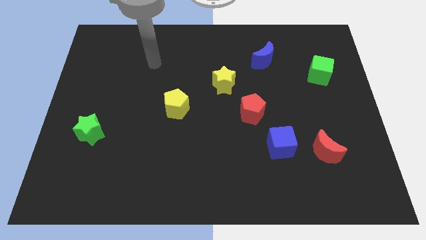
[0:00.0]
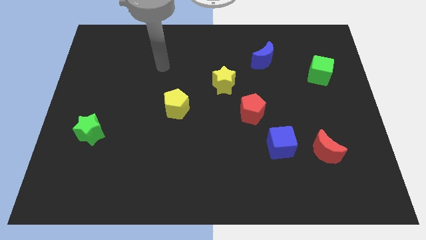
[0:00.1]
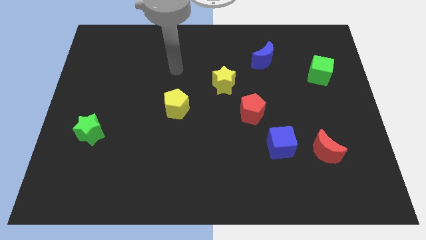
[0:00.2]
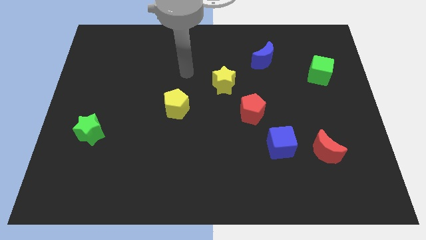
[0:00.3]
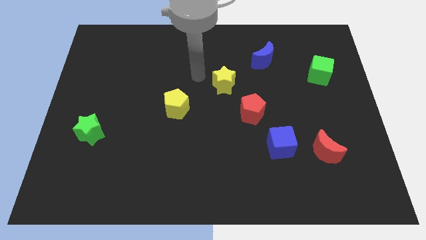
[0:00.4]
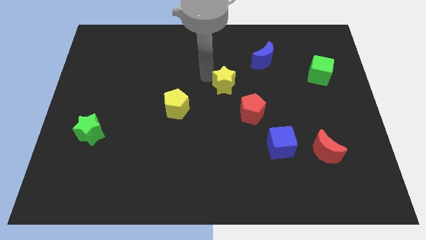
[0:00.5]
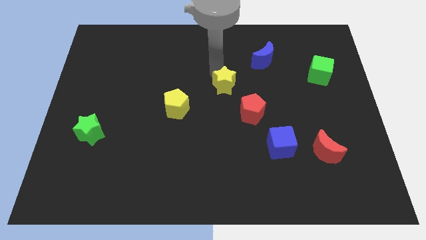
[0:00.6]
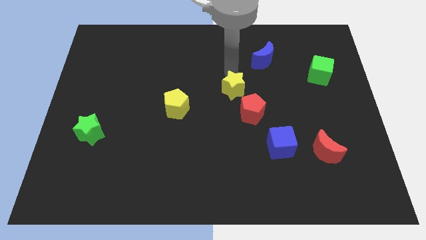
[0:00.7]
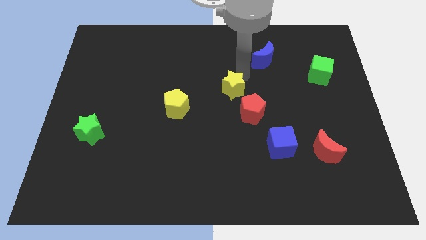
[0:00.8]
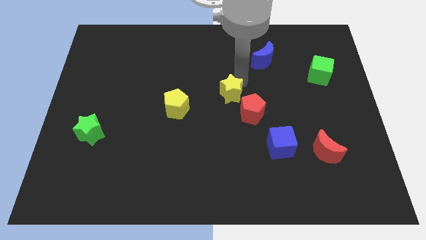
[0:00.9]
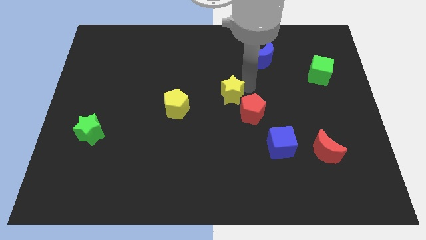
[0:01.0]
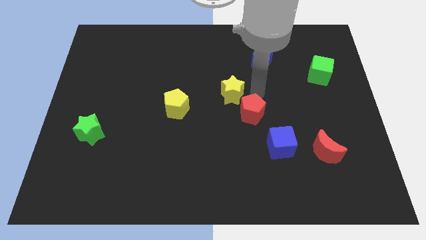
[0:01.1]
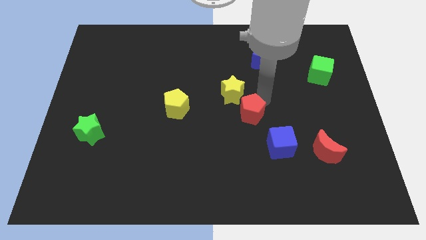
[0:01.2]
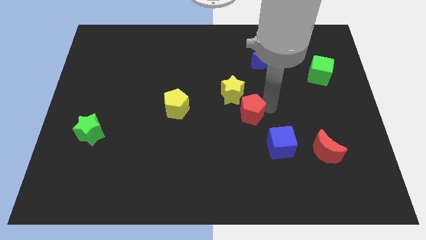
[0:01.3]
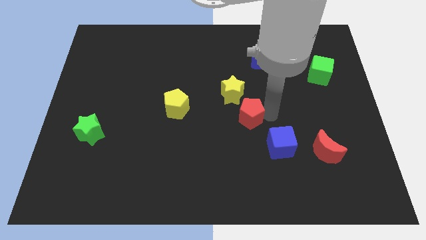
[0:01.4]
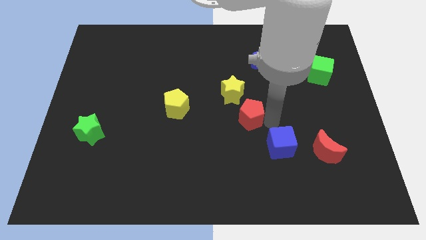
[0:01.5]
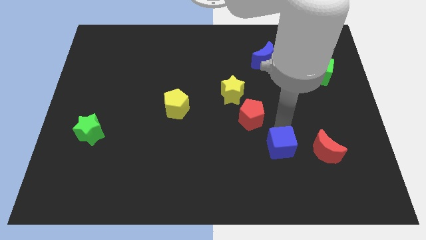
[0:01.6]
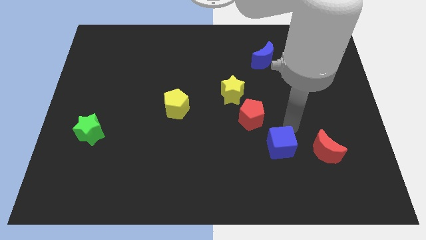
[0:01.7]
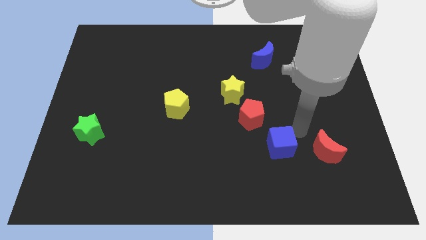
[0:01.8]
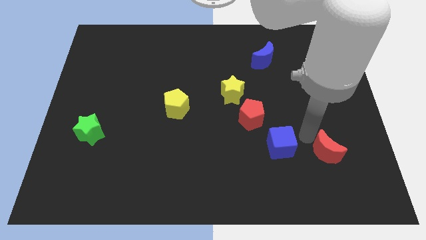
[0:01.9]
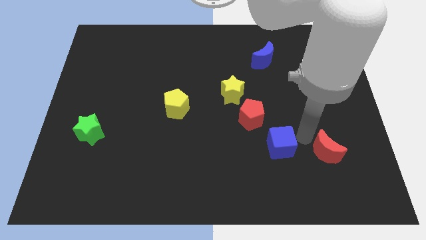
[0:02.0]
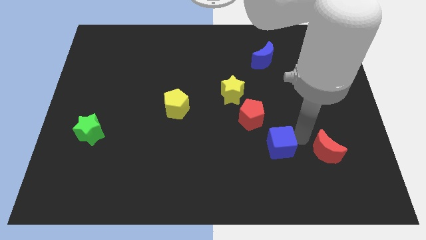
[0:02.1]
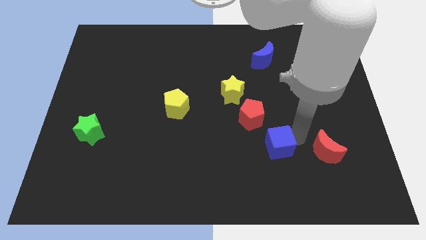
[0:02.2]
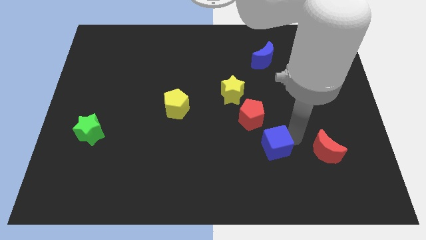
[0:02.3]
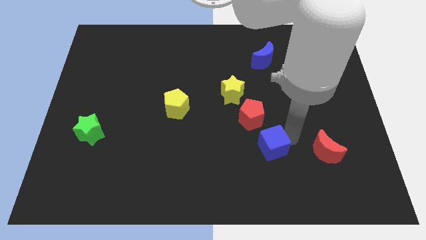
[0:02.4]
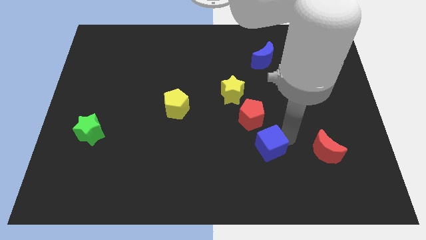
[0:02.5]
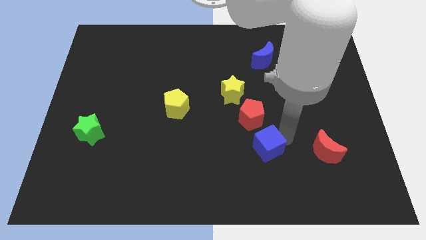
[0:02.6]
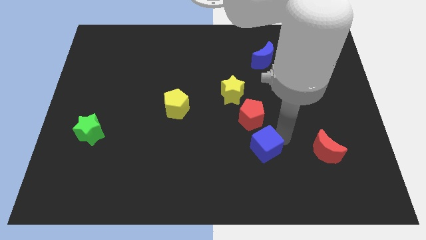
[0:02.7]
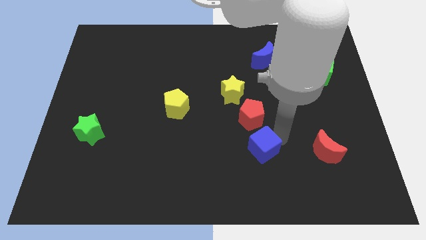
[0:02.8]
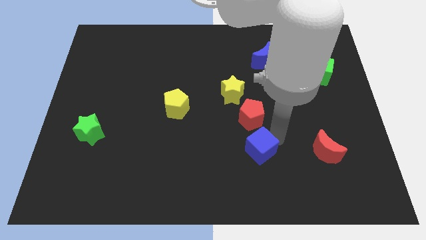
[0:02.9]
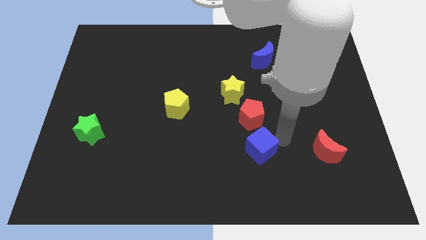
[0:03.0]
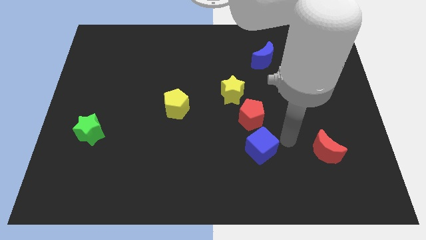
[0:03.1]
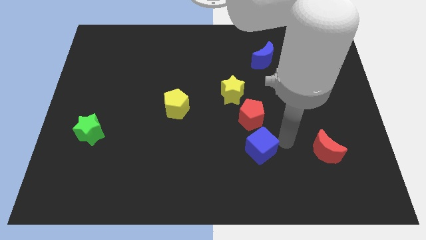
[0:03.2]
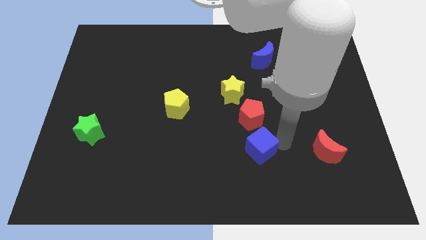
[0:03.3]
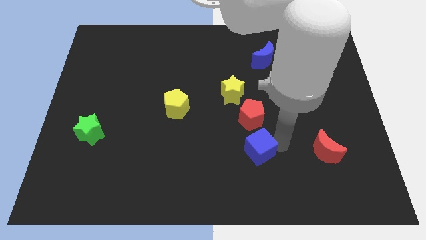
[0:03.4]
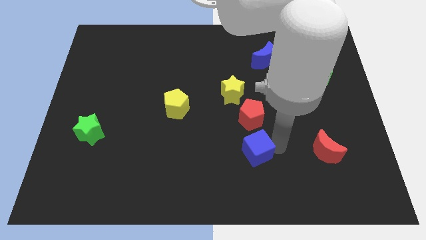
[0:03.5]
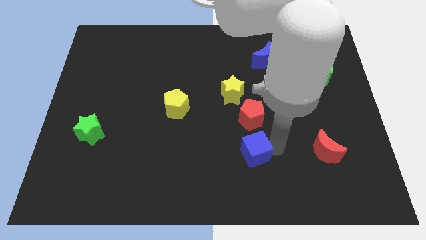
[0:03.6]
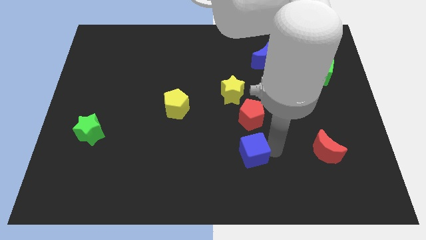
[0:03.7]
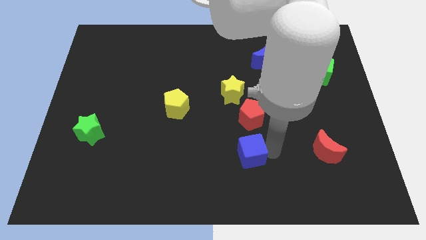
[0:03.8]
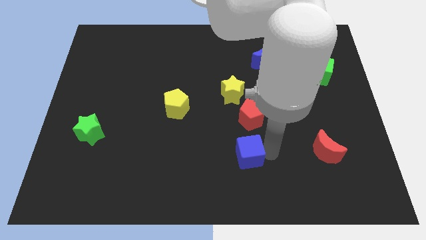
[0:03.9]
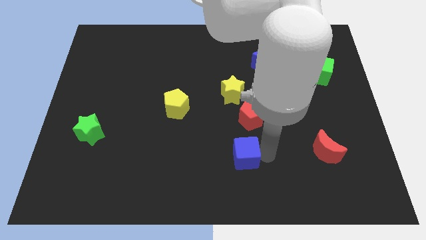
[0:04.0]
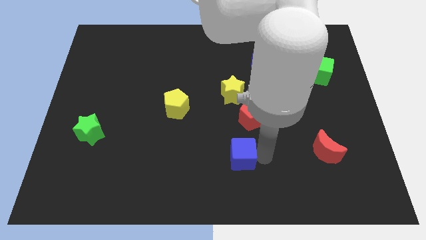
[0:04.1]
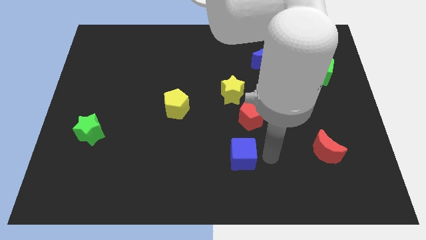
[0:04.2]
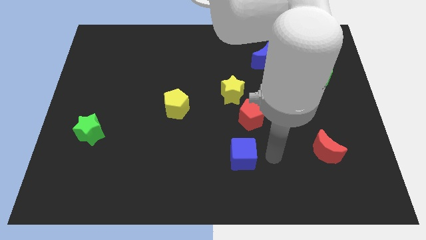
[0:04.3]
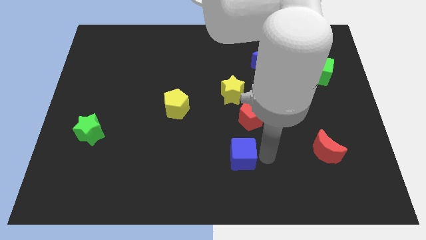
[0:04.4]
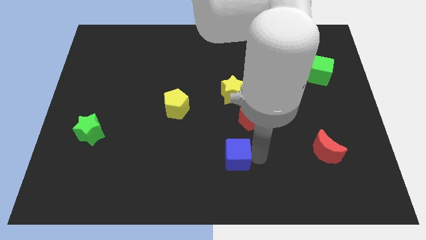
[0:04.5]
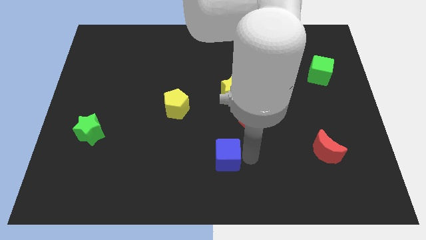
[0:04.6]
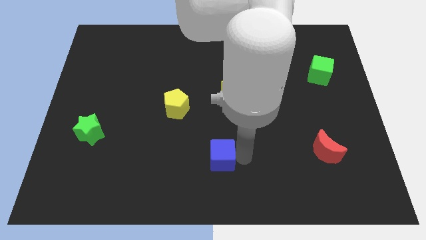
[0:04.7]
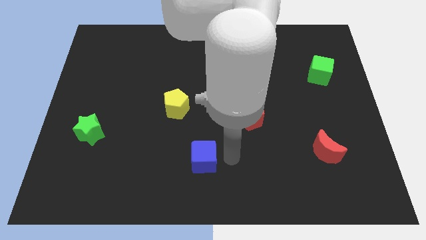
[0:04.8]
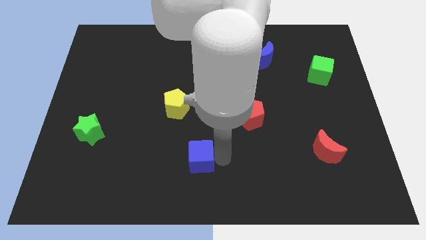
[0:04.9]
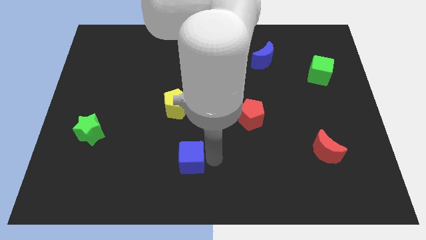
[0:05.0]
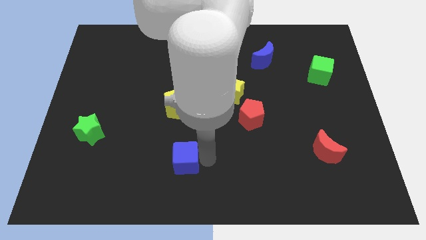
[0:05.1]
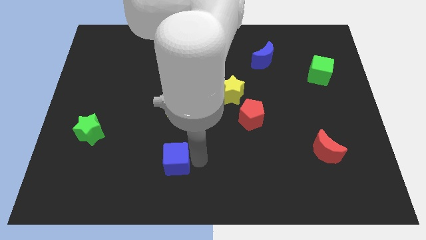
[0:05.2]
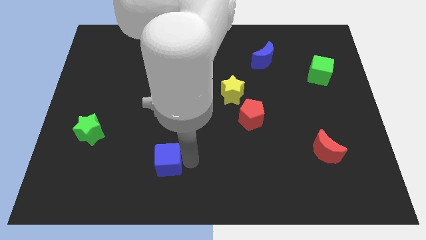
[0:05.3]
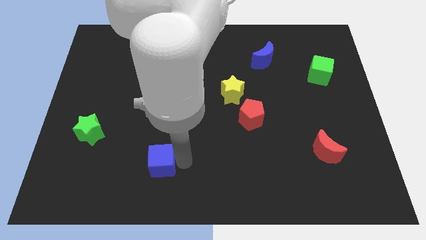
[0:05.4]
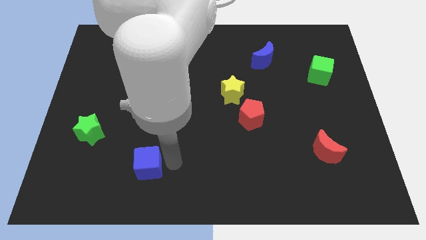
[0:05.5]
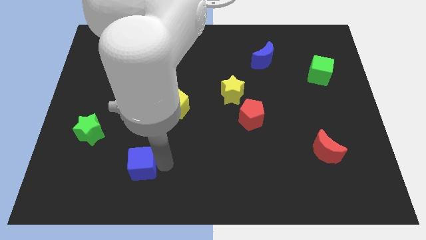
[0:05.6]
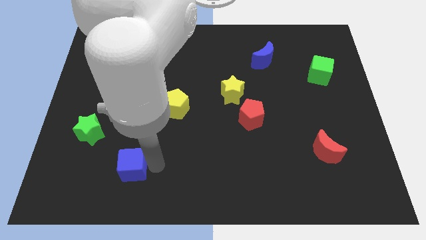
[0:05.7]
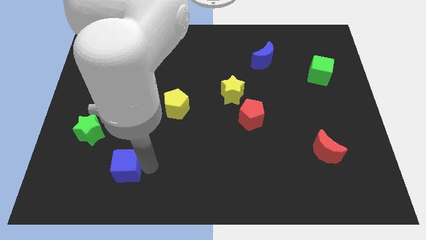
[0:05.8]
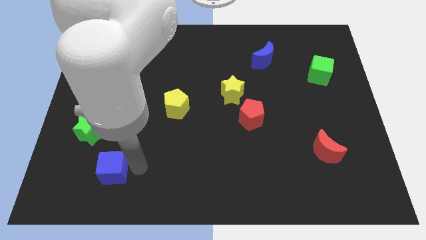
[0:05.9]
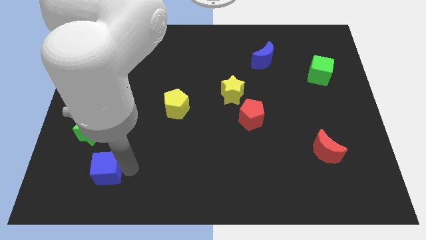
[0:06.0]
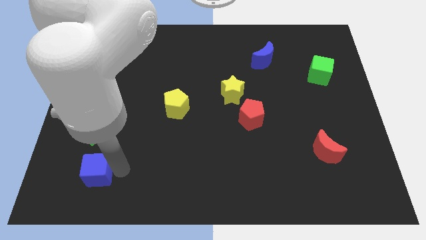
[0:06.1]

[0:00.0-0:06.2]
slide the blue cube to the bottom of the green star
